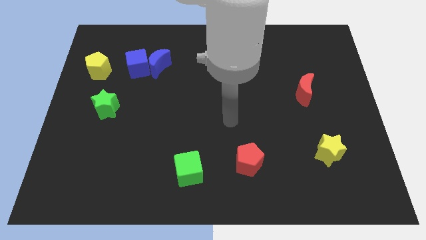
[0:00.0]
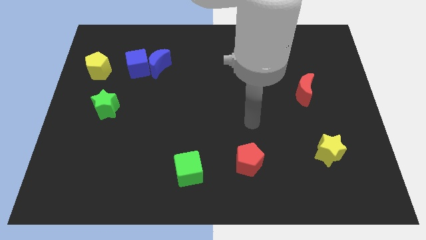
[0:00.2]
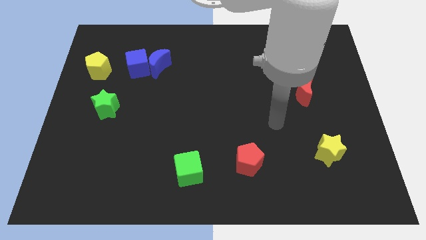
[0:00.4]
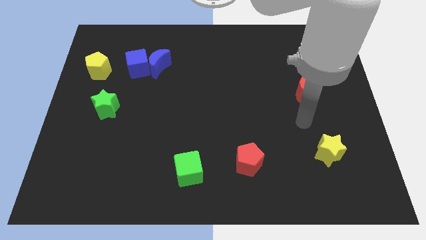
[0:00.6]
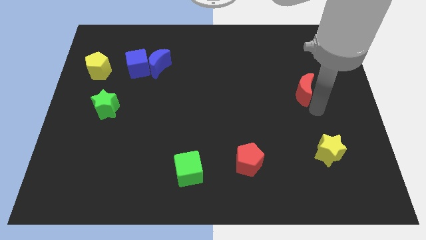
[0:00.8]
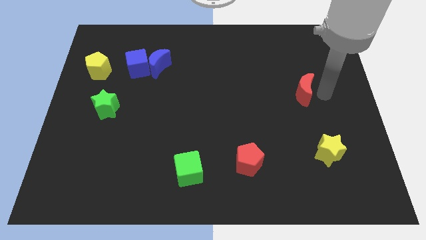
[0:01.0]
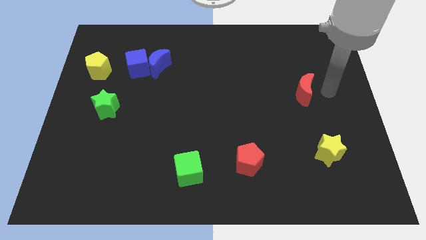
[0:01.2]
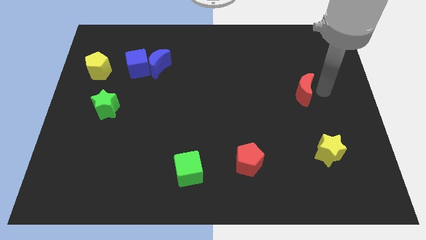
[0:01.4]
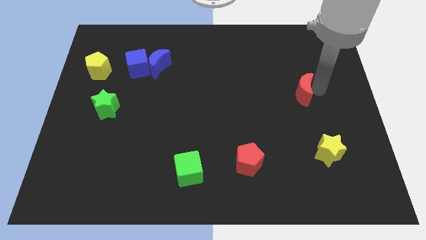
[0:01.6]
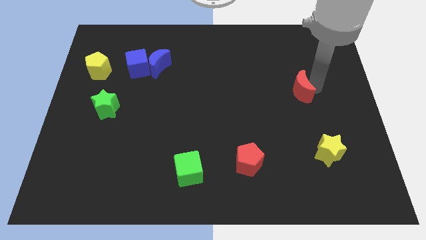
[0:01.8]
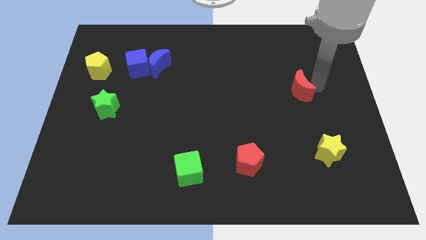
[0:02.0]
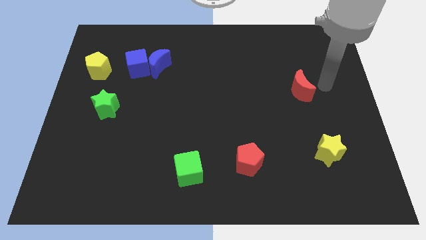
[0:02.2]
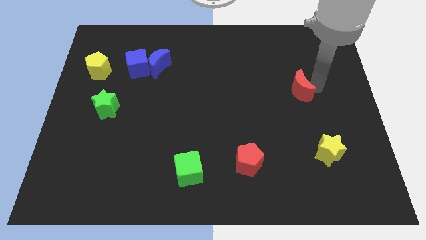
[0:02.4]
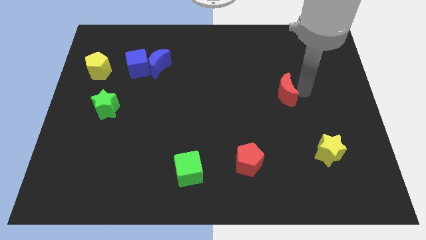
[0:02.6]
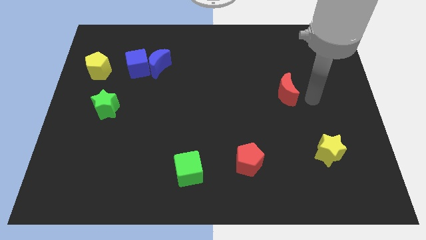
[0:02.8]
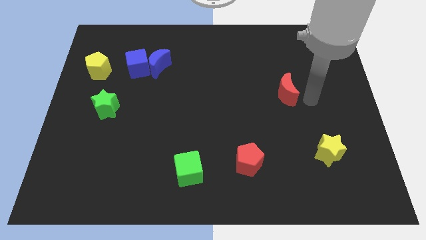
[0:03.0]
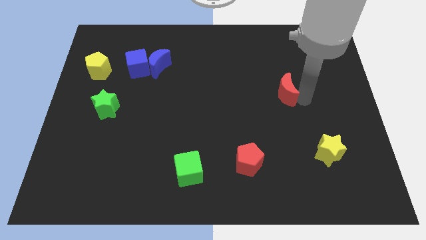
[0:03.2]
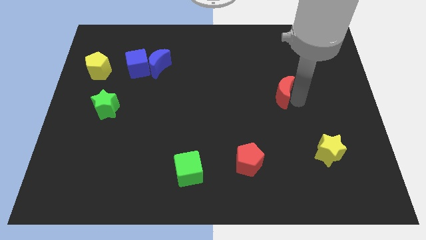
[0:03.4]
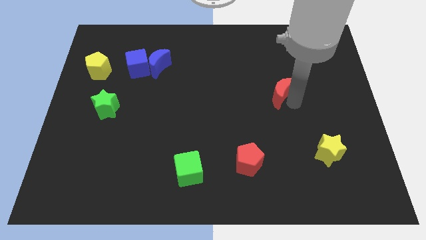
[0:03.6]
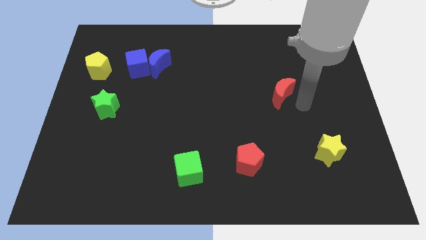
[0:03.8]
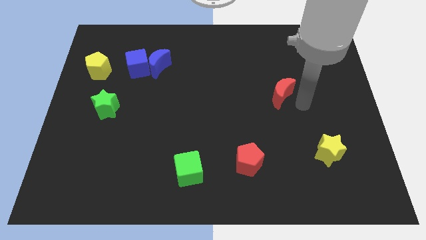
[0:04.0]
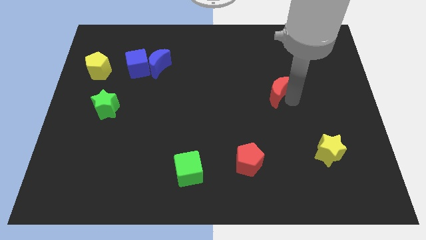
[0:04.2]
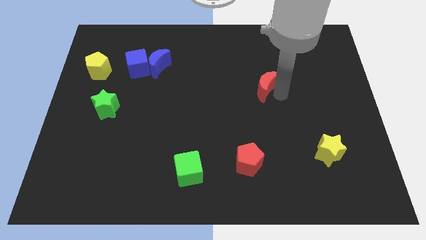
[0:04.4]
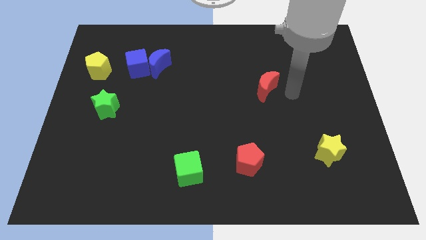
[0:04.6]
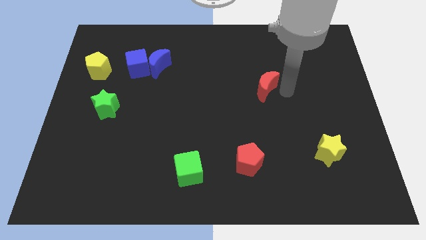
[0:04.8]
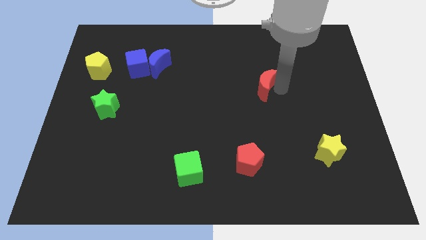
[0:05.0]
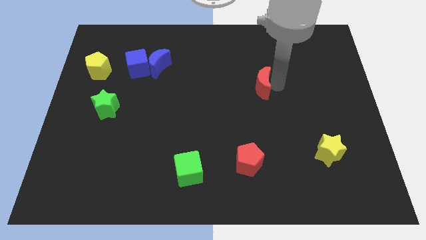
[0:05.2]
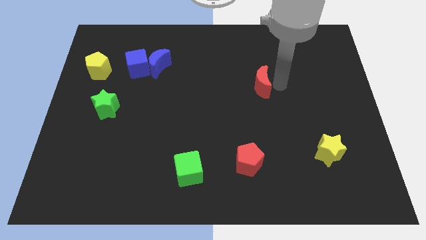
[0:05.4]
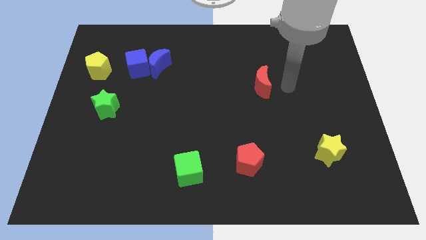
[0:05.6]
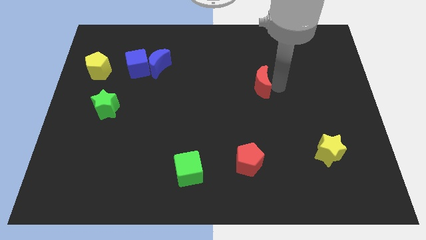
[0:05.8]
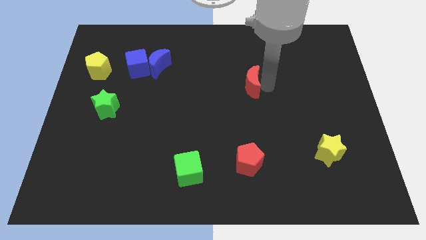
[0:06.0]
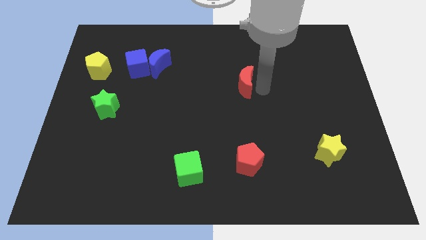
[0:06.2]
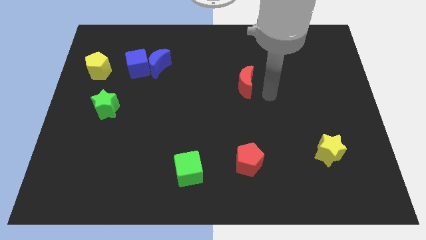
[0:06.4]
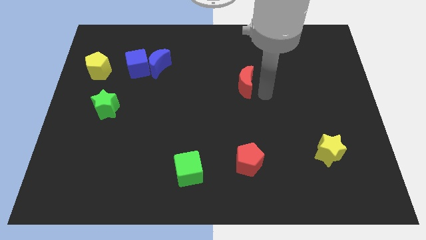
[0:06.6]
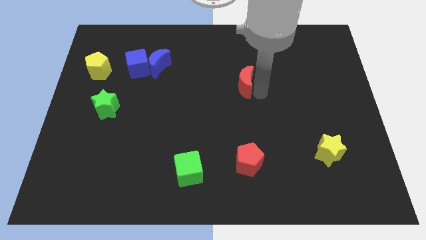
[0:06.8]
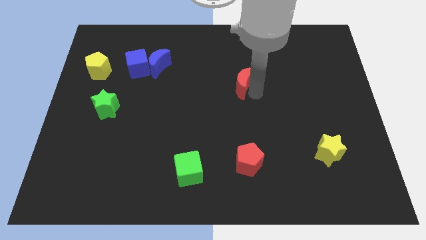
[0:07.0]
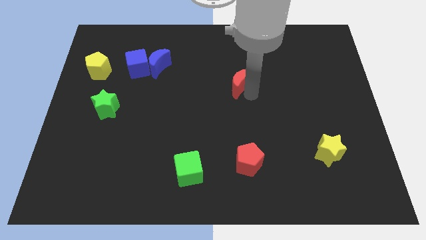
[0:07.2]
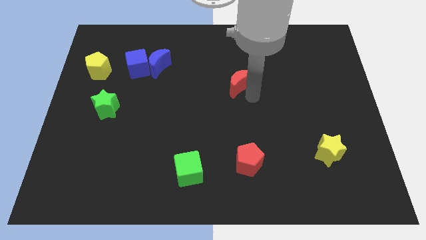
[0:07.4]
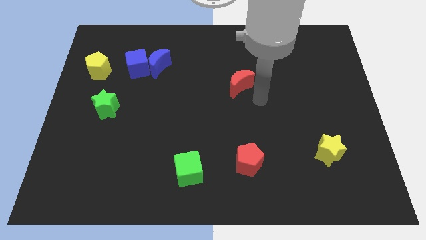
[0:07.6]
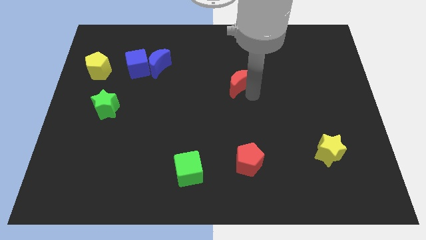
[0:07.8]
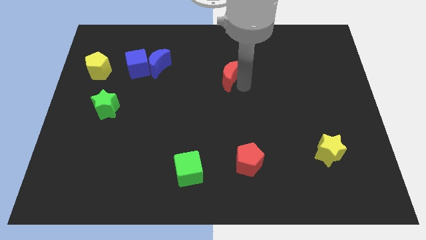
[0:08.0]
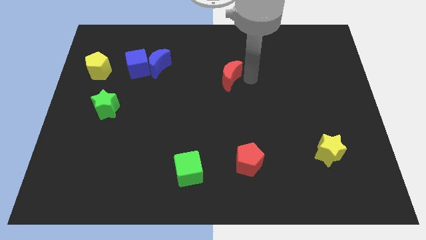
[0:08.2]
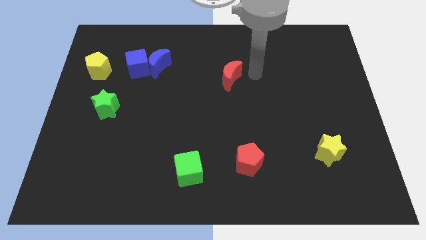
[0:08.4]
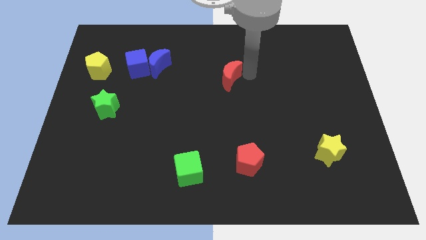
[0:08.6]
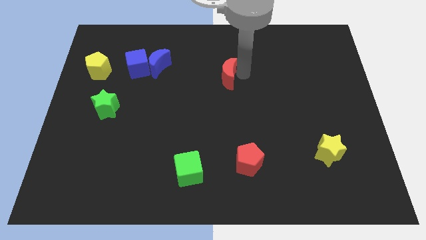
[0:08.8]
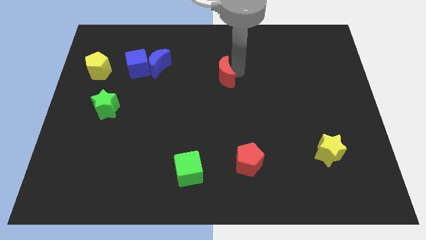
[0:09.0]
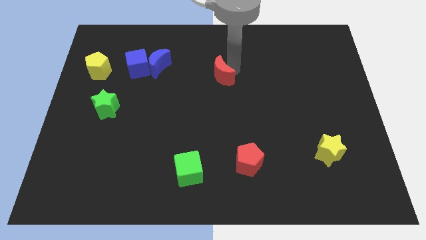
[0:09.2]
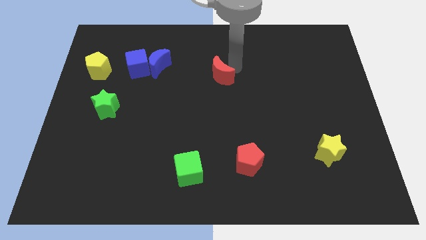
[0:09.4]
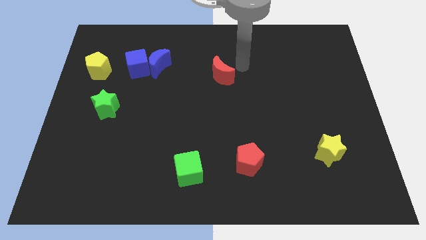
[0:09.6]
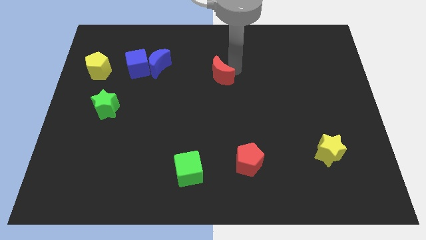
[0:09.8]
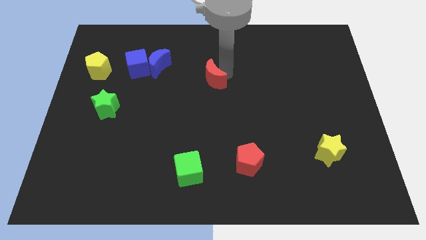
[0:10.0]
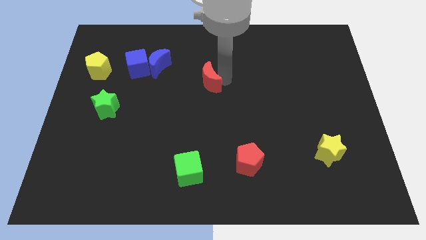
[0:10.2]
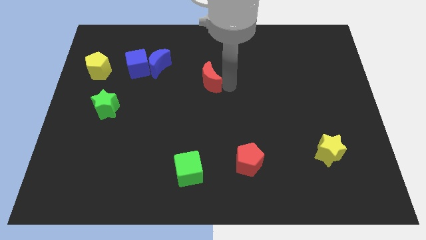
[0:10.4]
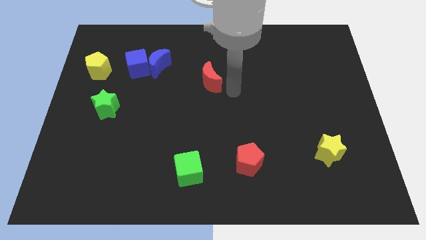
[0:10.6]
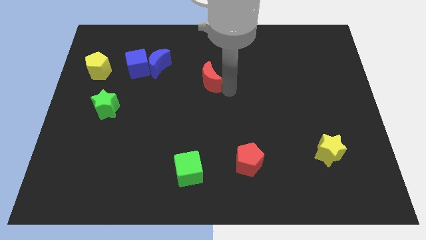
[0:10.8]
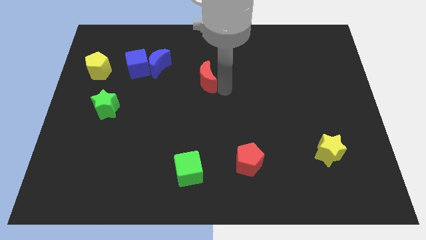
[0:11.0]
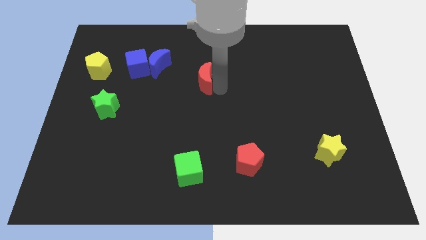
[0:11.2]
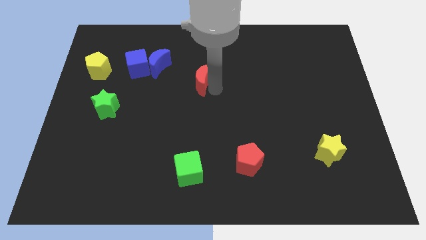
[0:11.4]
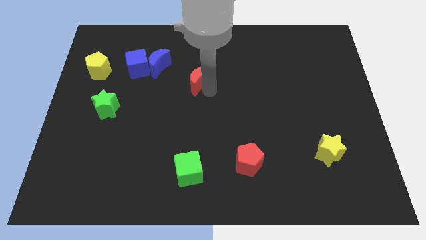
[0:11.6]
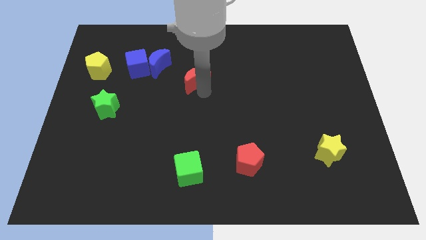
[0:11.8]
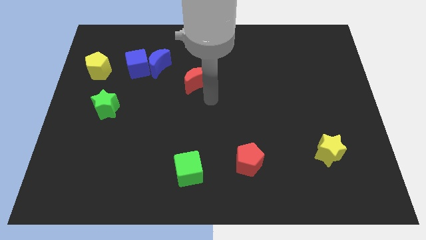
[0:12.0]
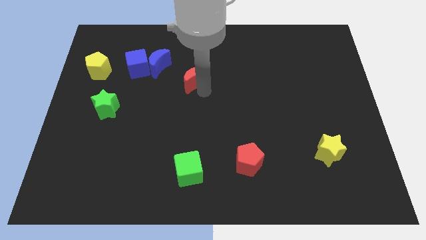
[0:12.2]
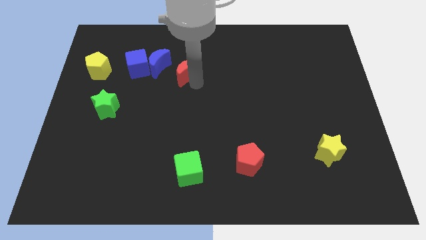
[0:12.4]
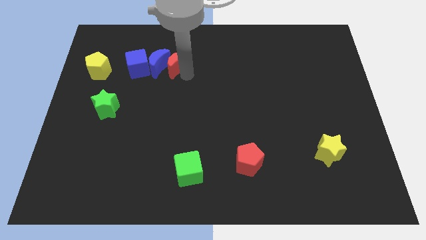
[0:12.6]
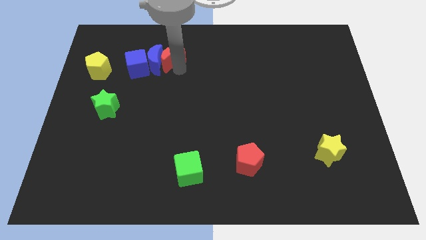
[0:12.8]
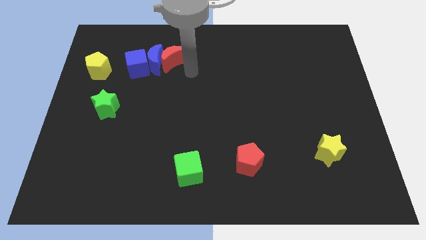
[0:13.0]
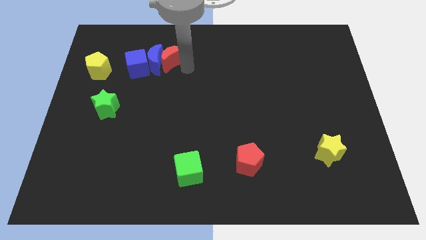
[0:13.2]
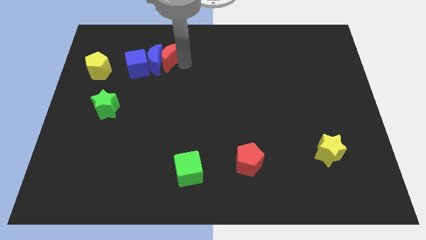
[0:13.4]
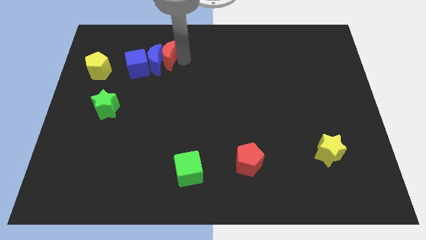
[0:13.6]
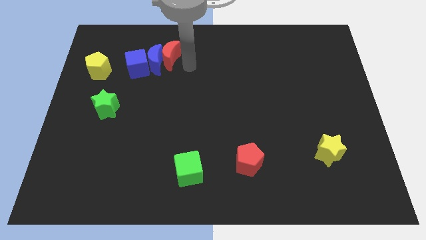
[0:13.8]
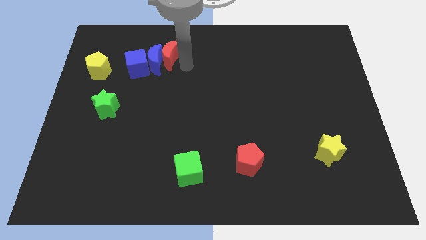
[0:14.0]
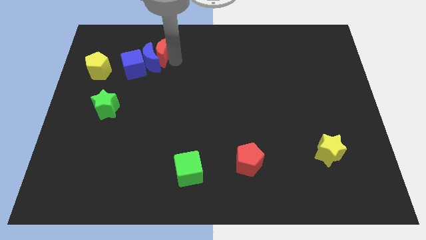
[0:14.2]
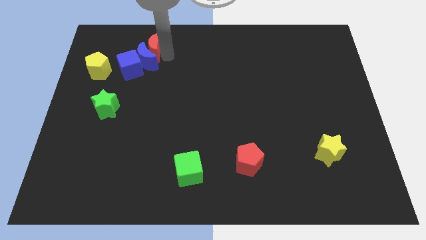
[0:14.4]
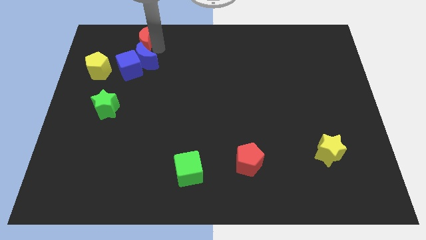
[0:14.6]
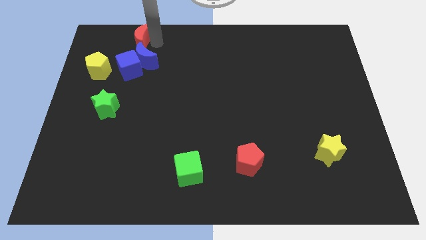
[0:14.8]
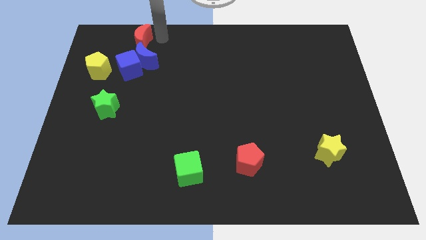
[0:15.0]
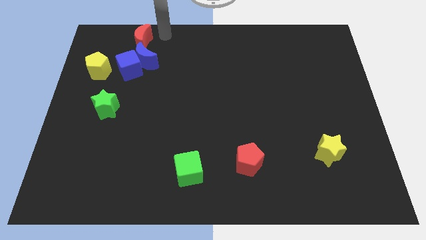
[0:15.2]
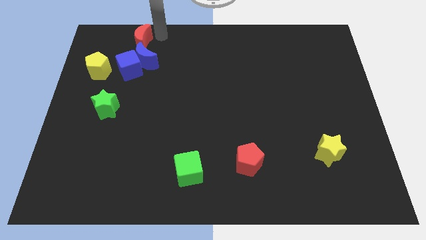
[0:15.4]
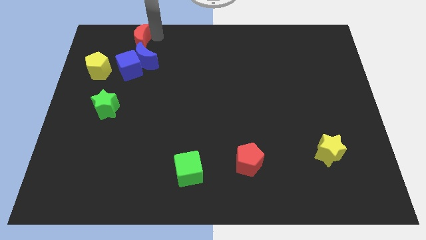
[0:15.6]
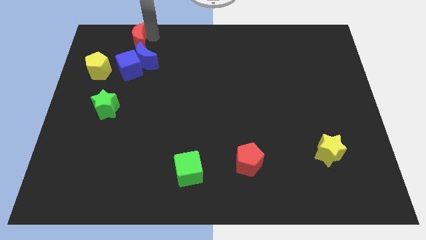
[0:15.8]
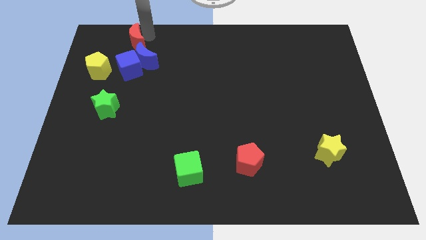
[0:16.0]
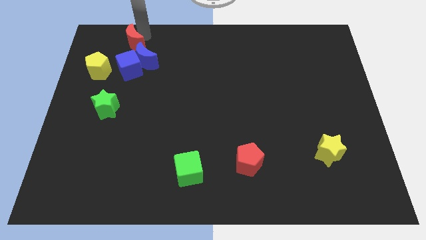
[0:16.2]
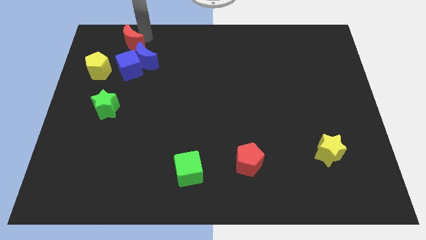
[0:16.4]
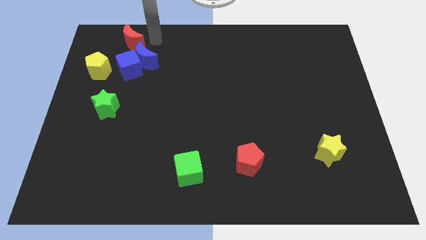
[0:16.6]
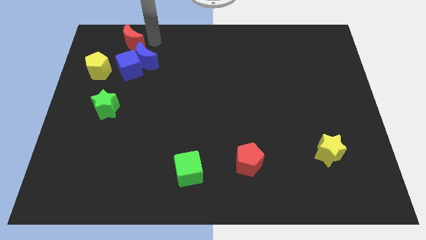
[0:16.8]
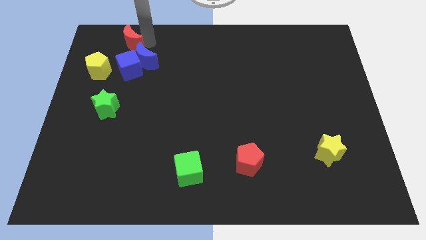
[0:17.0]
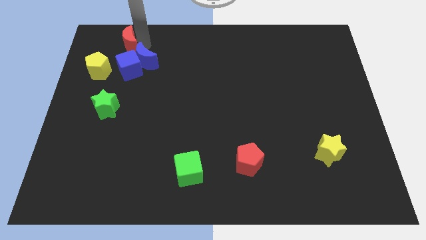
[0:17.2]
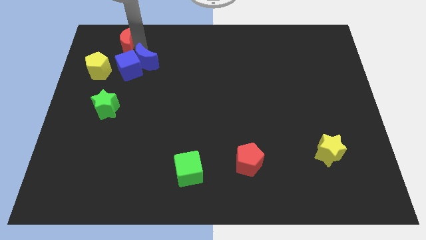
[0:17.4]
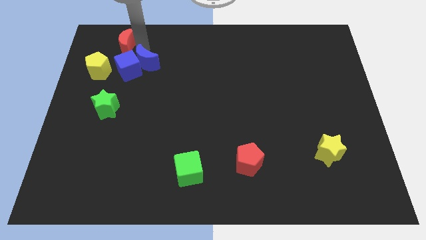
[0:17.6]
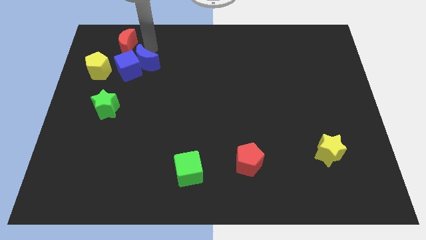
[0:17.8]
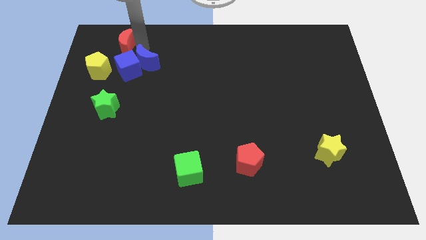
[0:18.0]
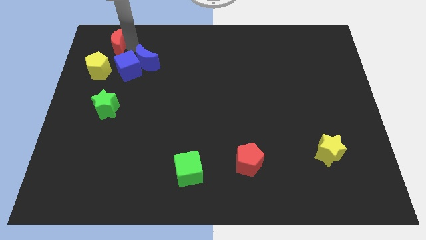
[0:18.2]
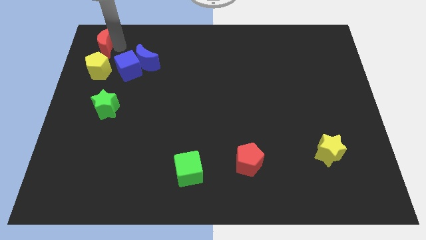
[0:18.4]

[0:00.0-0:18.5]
put the red moon to the upper left corner
